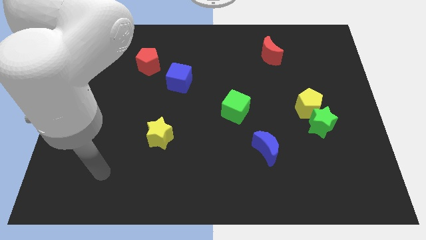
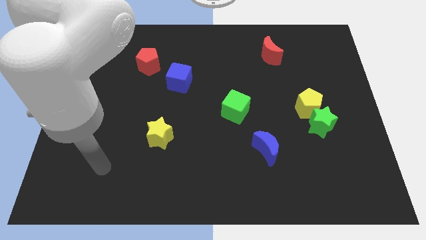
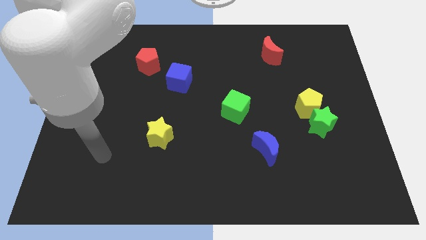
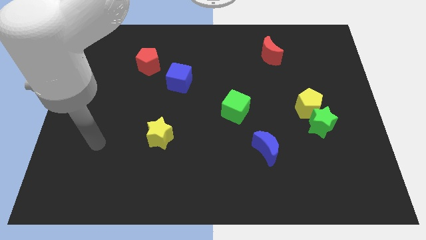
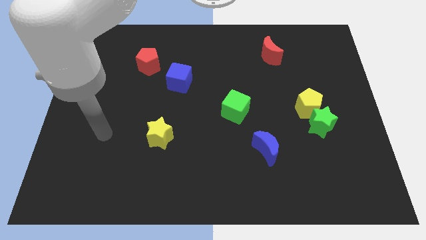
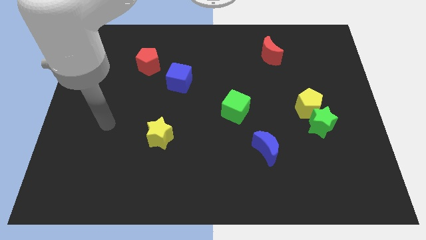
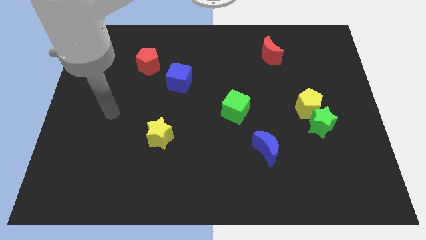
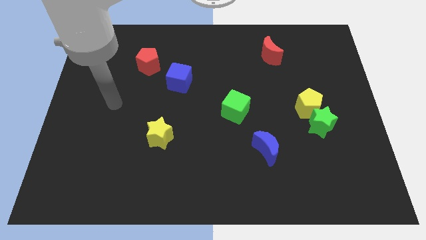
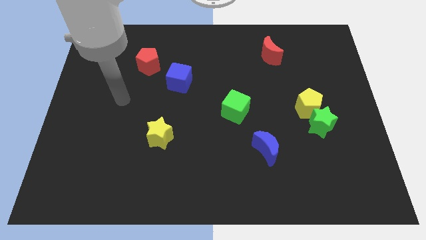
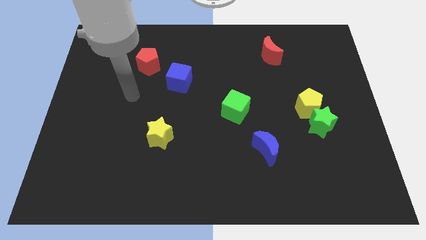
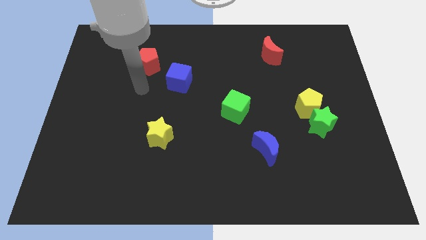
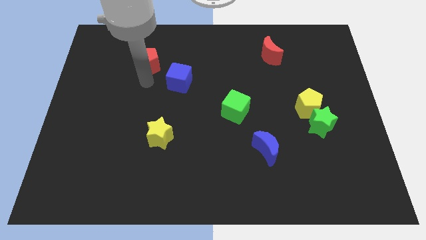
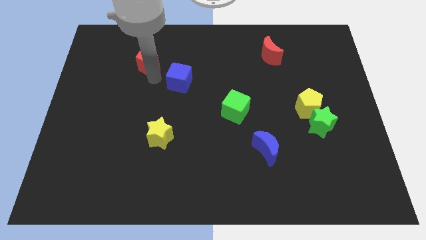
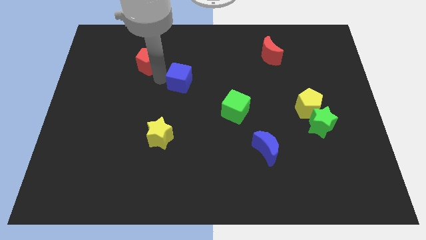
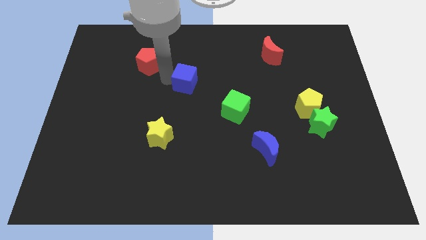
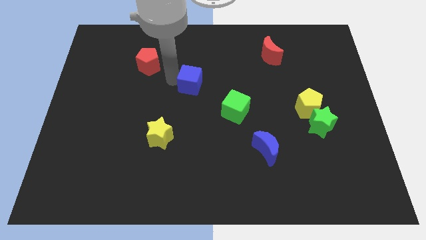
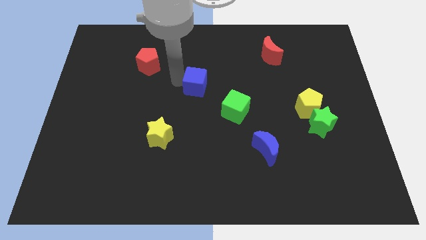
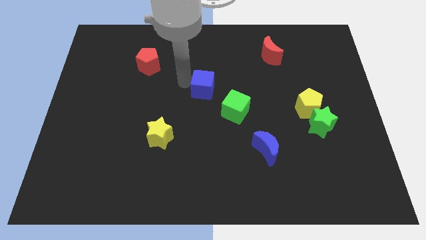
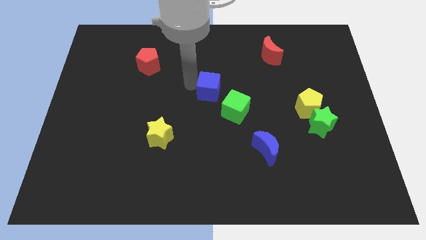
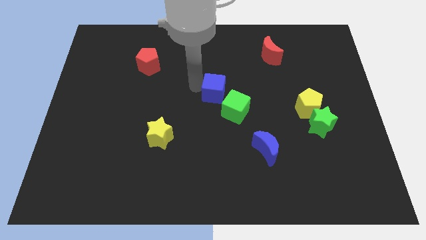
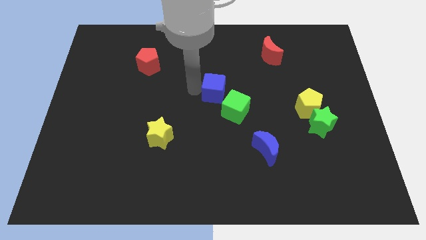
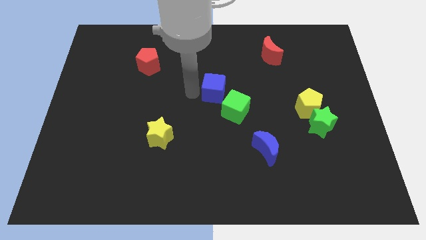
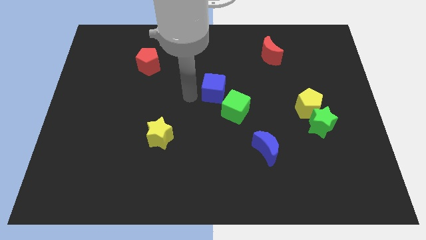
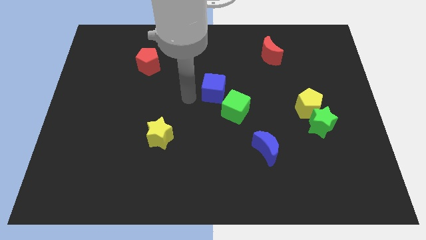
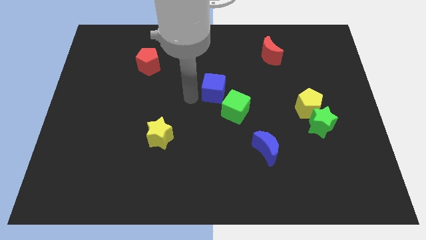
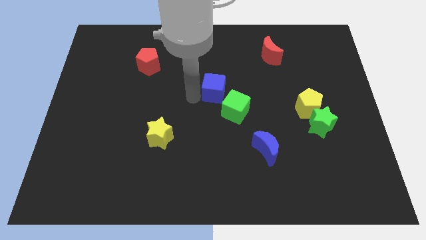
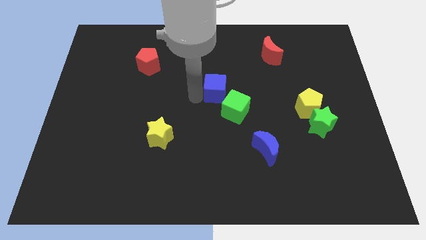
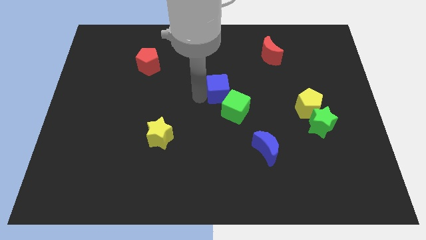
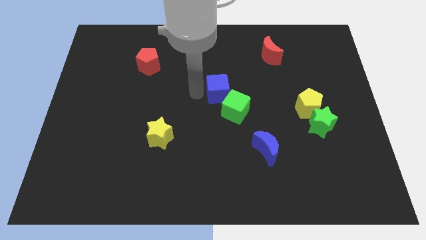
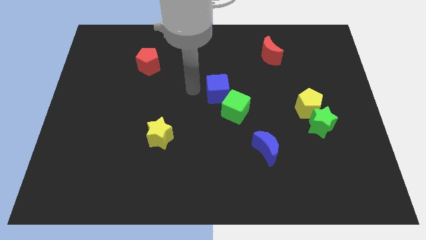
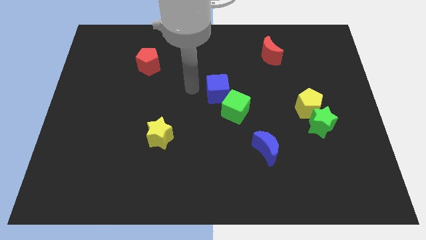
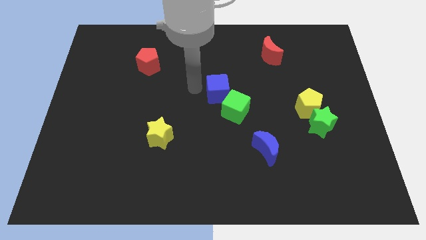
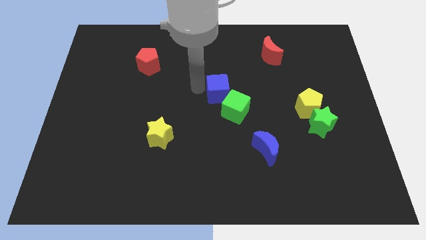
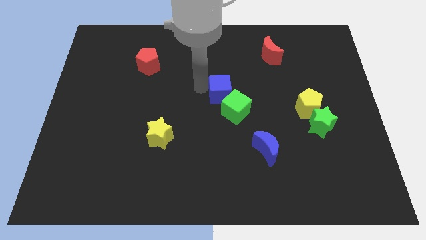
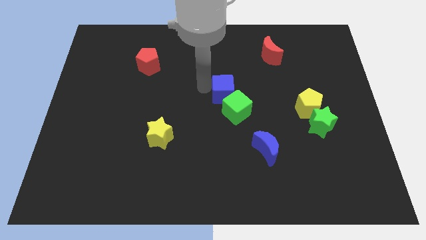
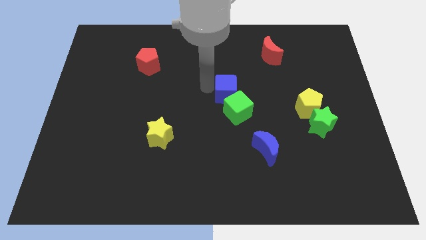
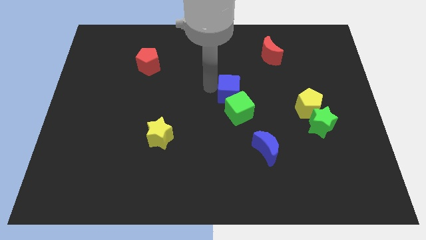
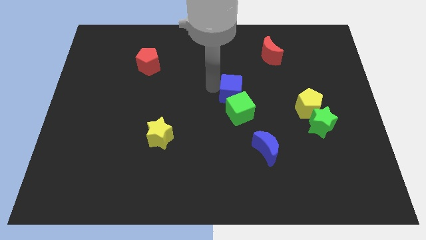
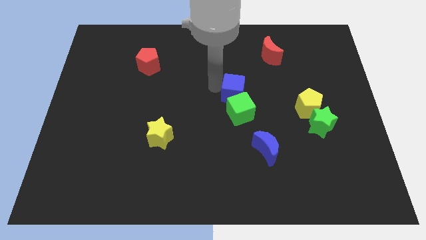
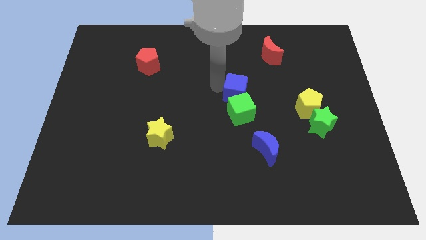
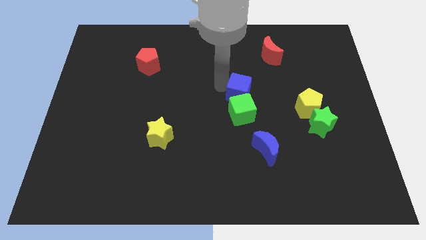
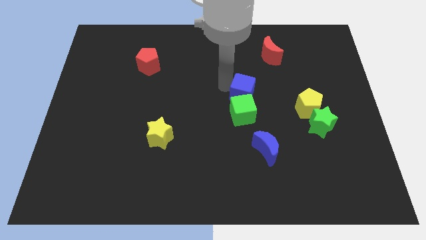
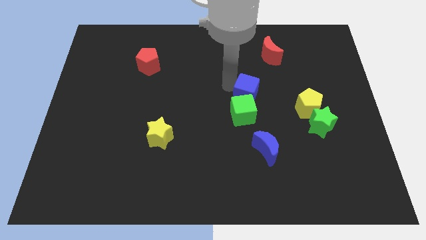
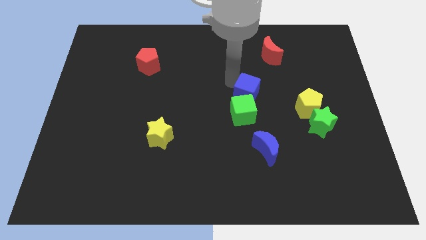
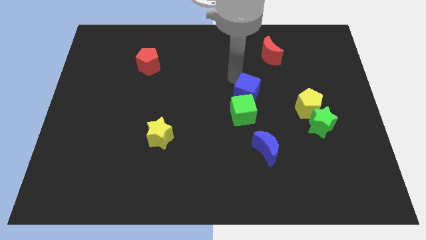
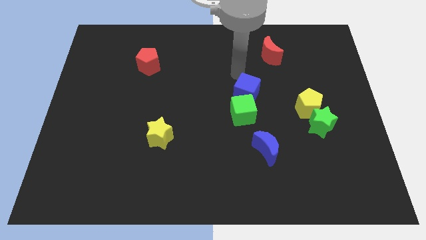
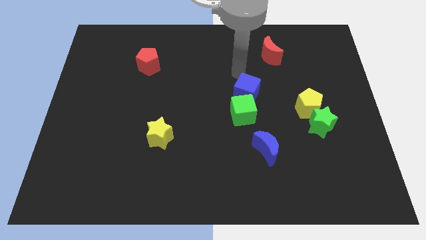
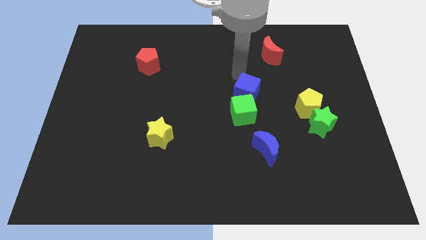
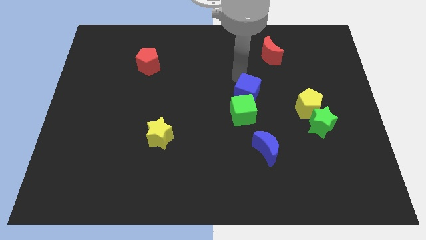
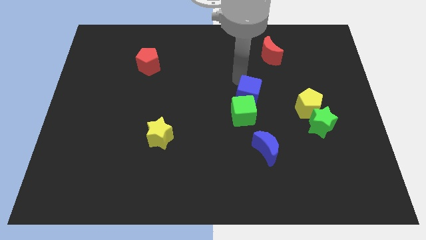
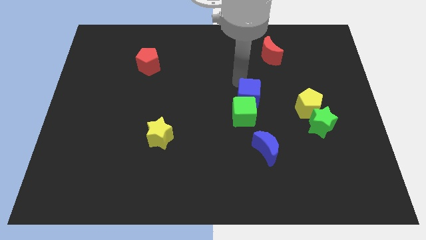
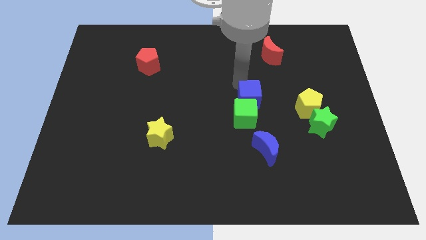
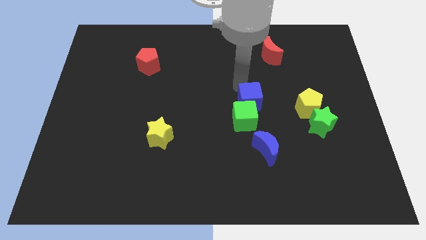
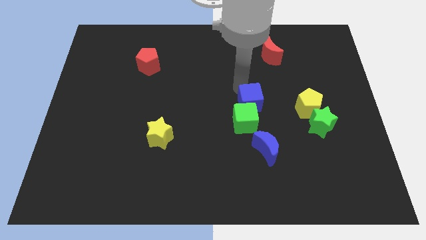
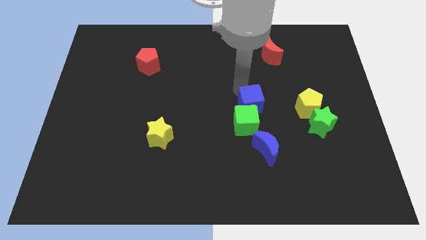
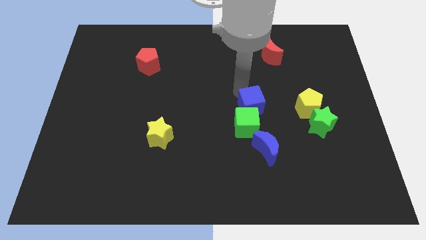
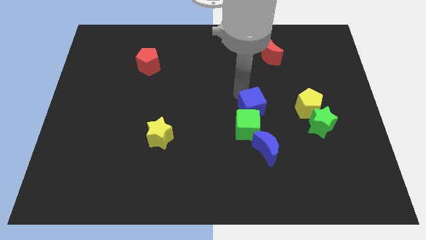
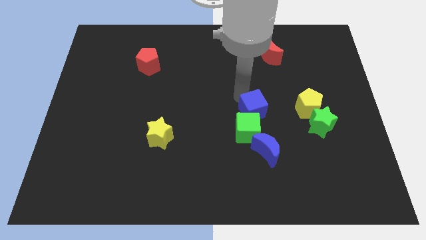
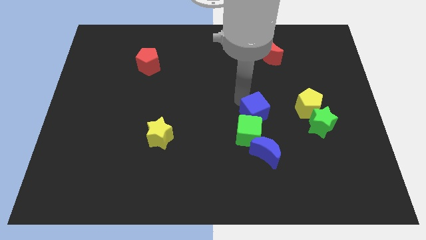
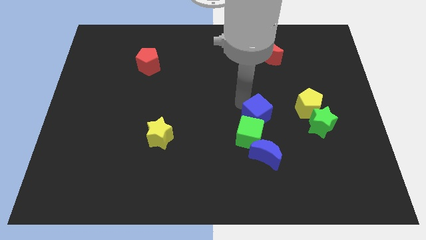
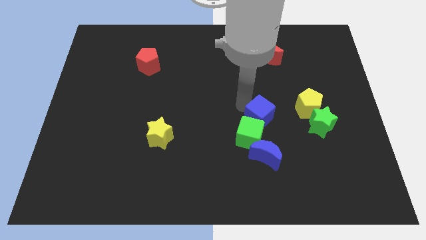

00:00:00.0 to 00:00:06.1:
slide the blue cube diagonally down and to the right

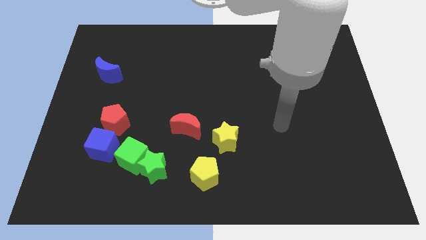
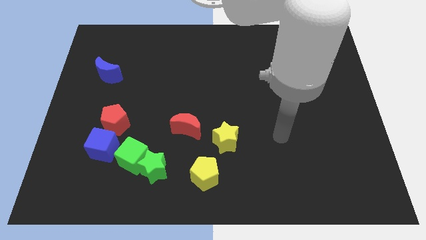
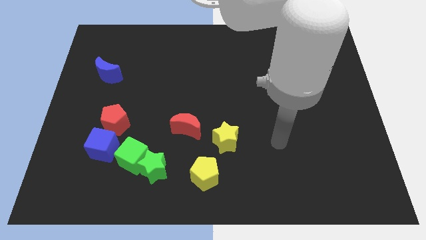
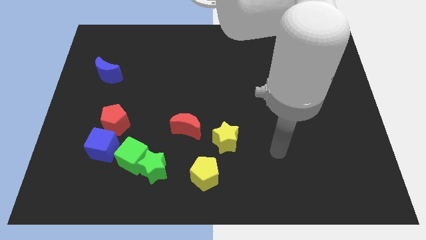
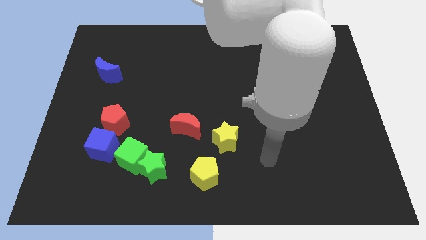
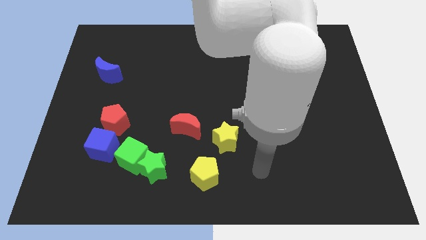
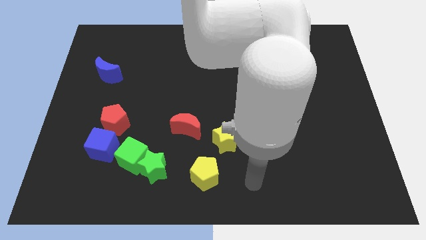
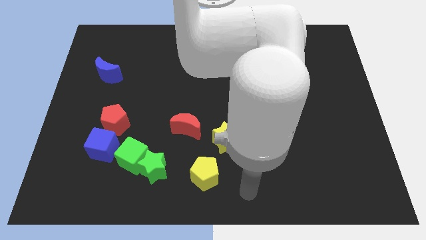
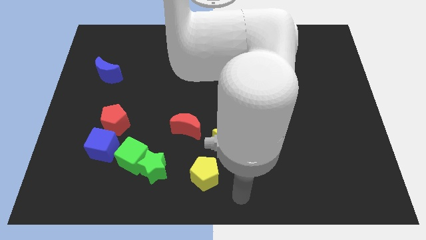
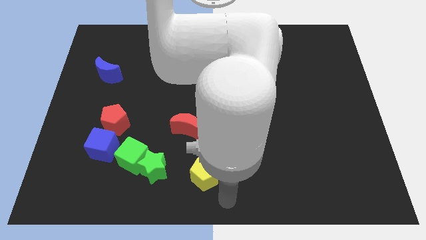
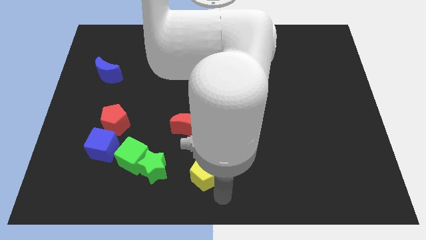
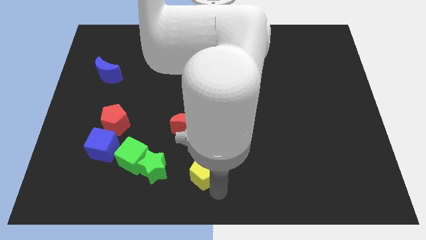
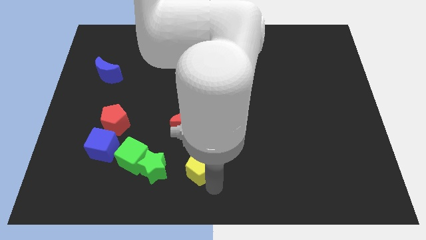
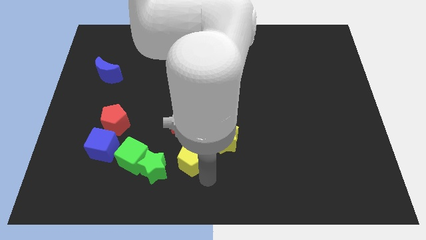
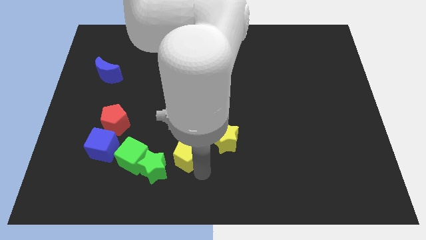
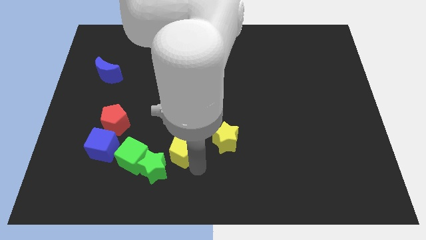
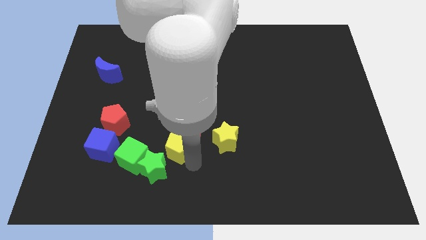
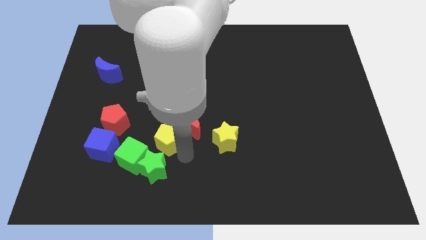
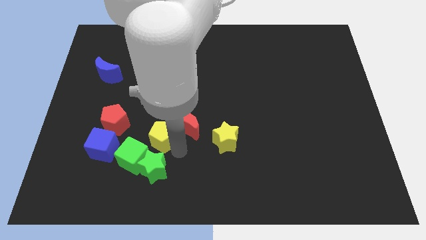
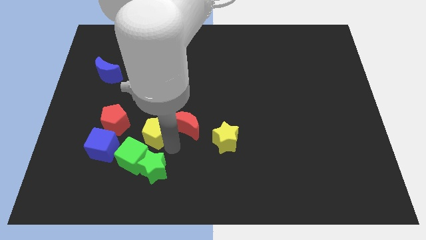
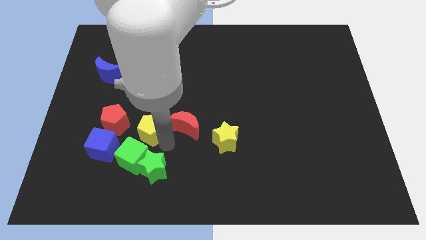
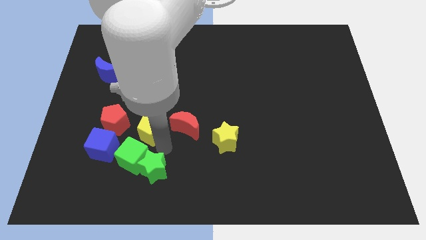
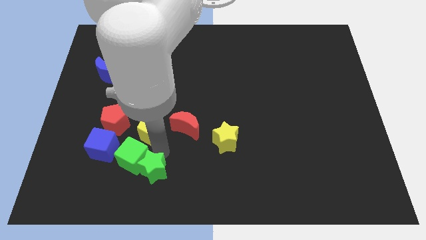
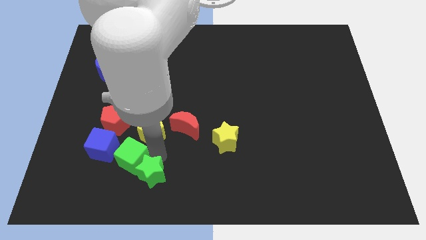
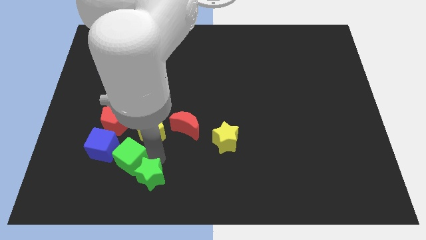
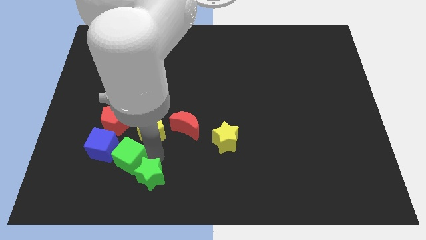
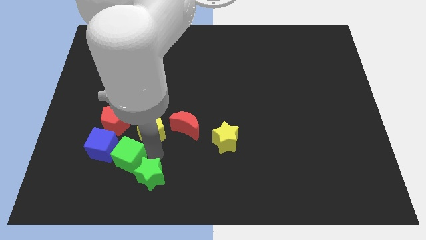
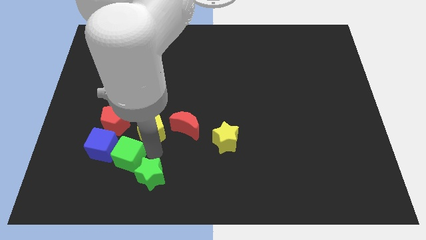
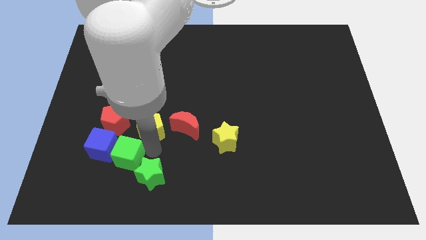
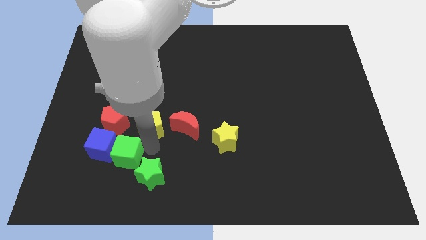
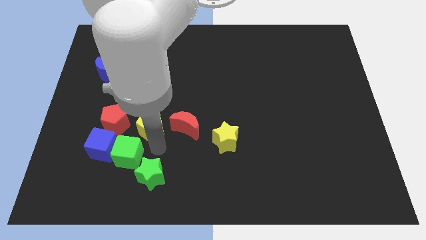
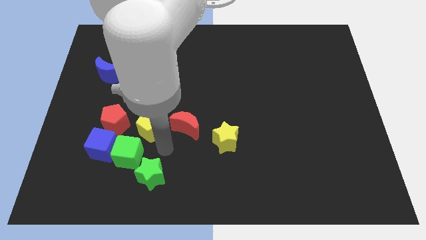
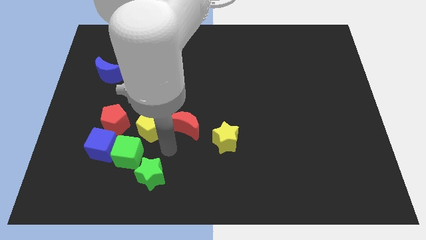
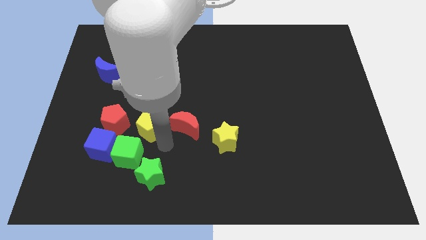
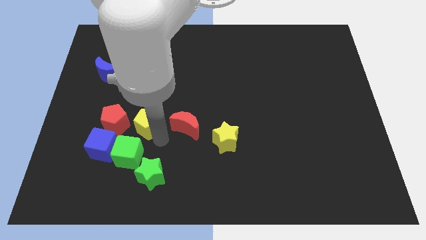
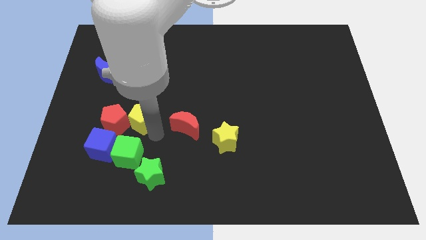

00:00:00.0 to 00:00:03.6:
slide the yellow pentagon upwards and to the left
